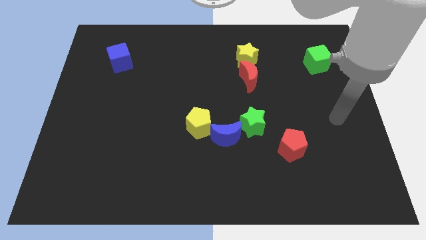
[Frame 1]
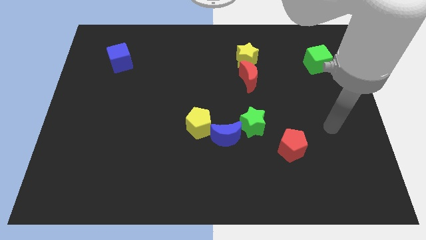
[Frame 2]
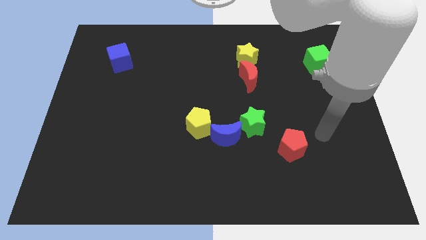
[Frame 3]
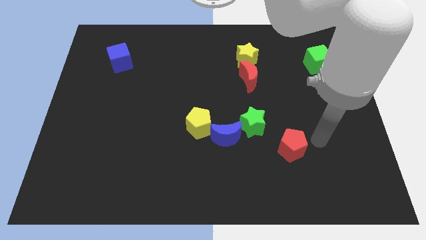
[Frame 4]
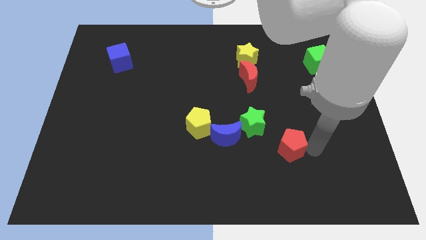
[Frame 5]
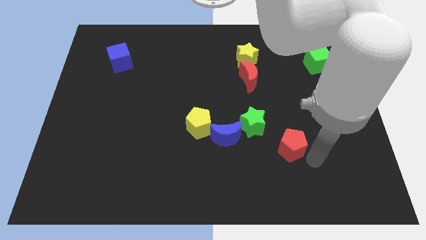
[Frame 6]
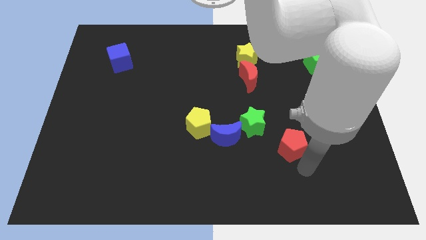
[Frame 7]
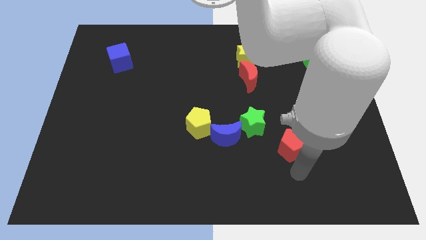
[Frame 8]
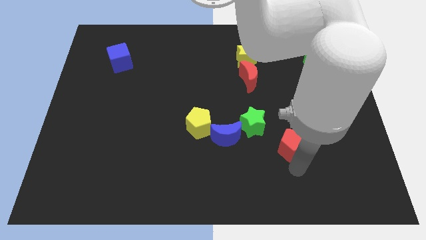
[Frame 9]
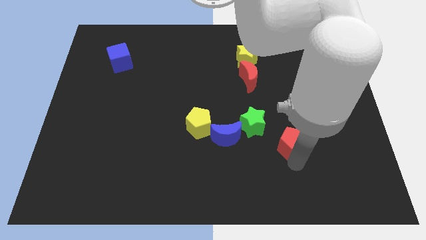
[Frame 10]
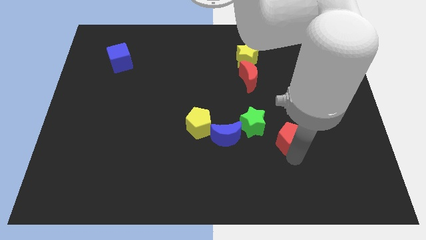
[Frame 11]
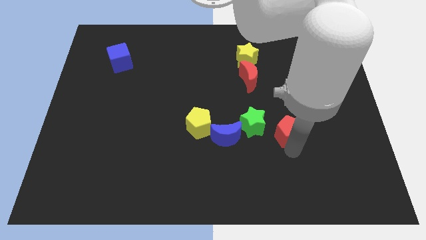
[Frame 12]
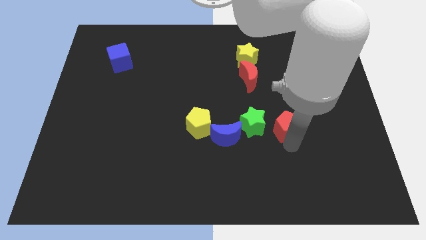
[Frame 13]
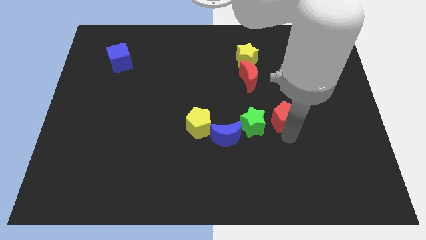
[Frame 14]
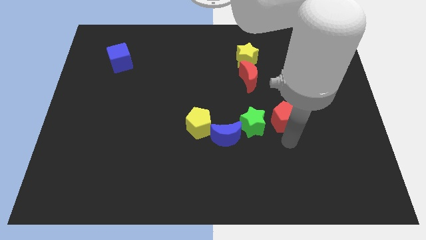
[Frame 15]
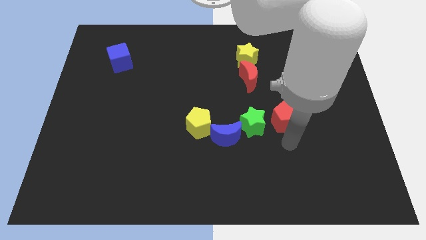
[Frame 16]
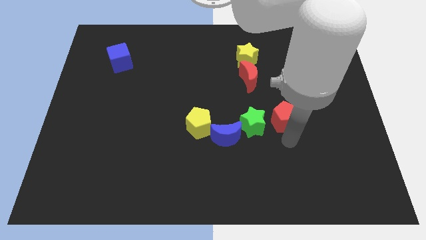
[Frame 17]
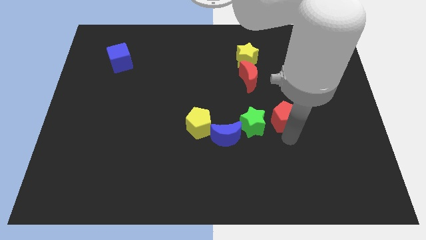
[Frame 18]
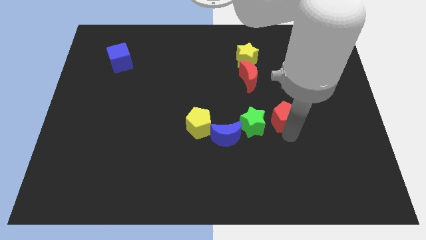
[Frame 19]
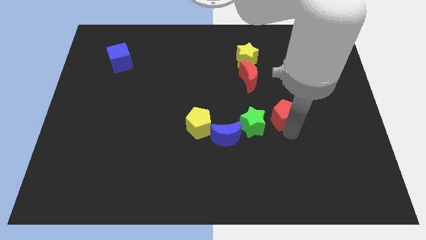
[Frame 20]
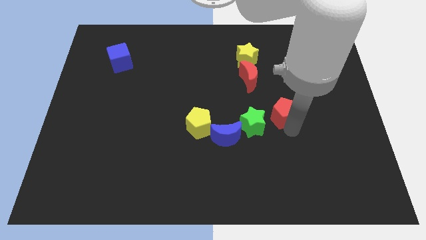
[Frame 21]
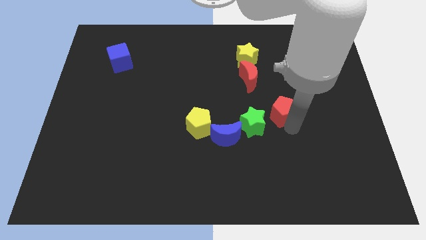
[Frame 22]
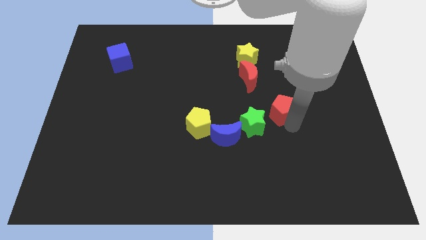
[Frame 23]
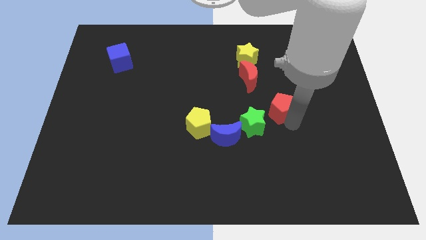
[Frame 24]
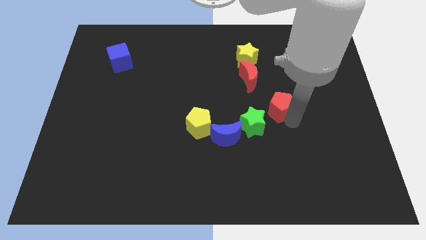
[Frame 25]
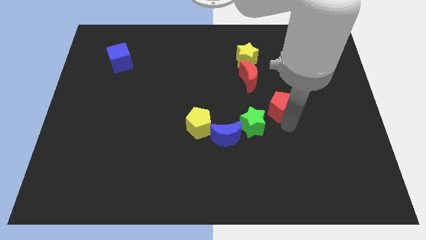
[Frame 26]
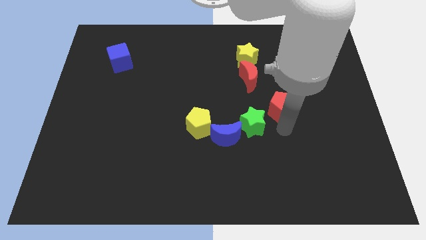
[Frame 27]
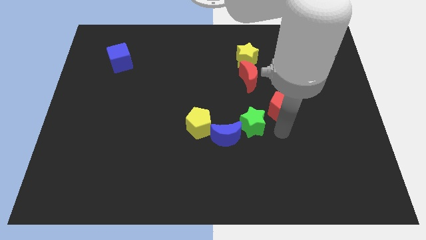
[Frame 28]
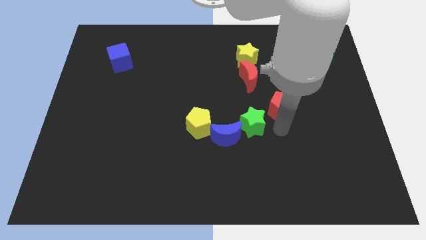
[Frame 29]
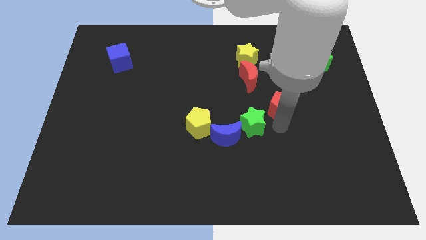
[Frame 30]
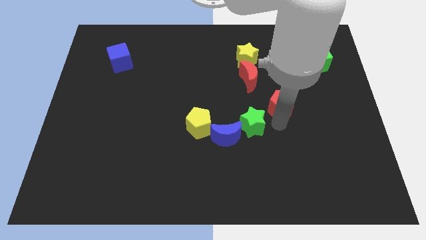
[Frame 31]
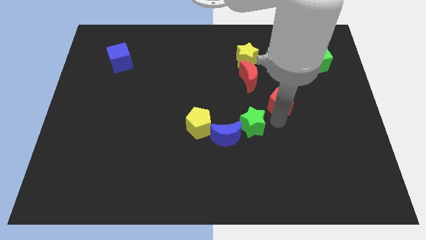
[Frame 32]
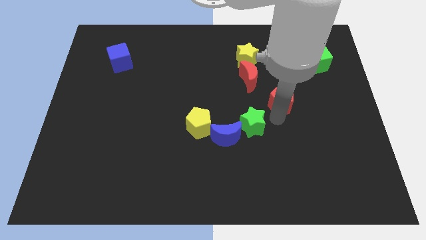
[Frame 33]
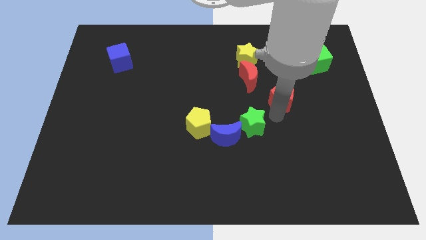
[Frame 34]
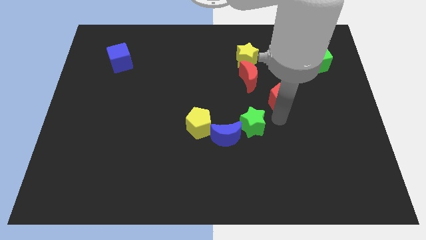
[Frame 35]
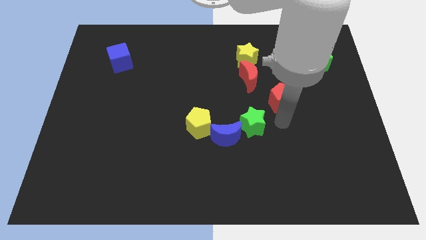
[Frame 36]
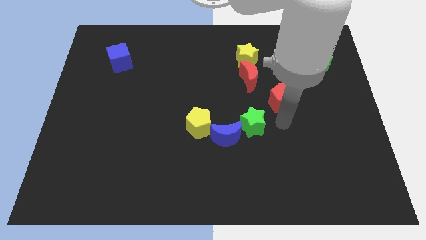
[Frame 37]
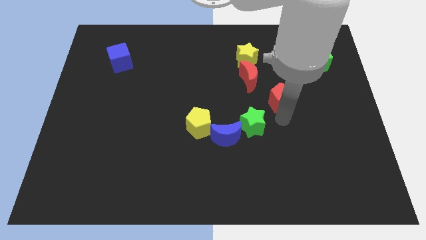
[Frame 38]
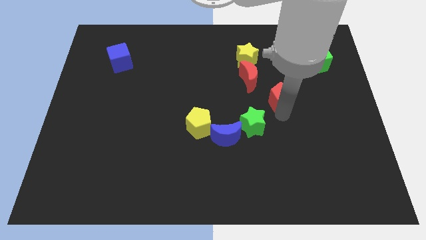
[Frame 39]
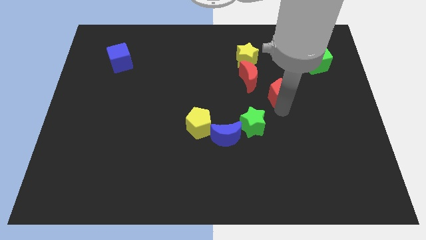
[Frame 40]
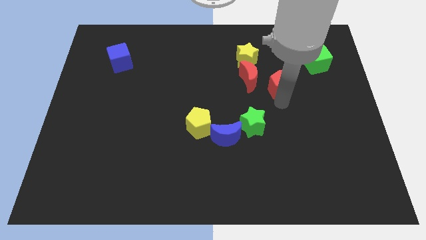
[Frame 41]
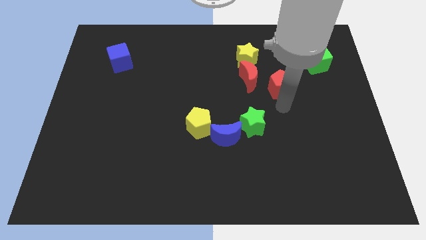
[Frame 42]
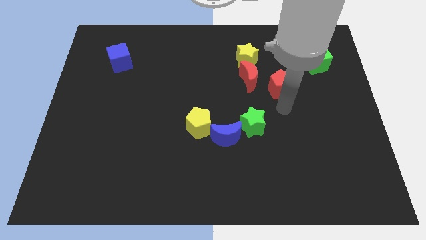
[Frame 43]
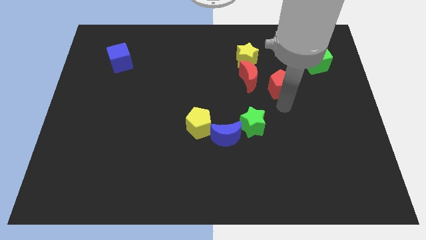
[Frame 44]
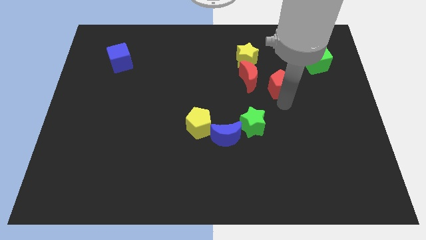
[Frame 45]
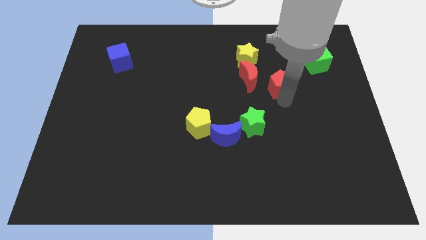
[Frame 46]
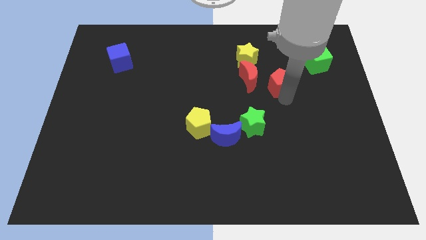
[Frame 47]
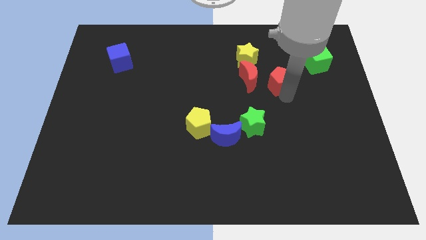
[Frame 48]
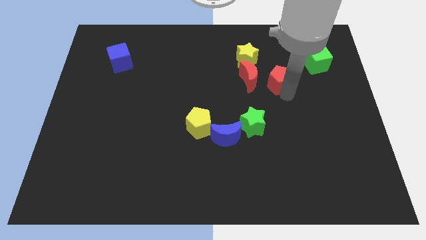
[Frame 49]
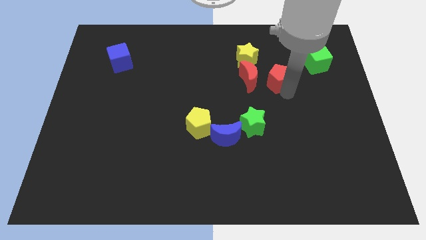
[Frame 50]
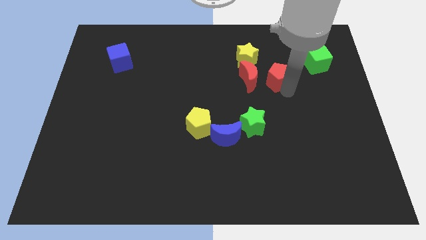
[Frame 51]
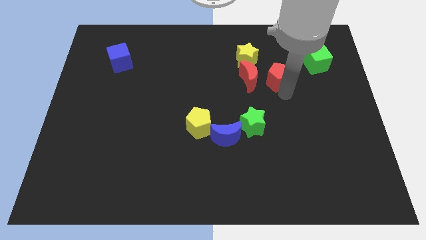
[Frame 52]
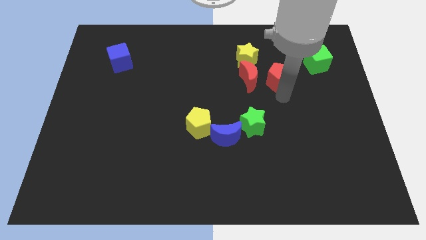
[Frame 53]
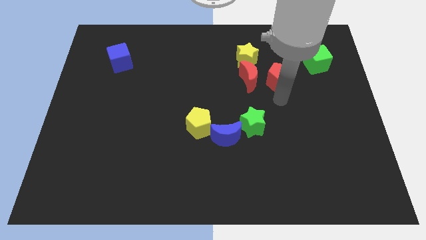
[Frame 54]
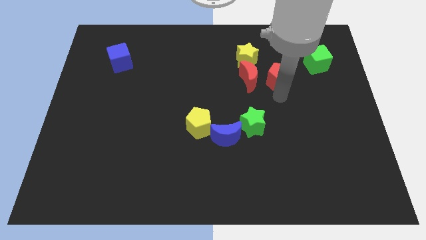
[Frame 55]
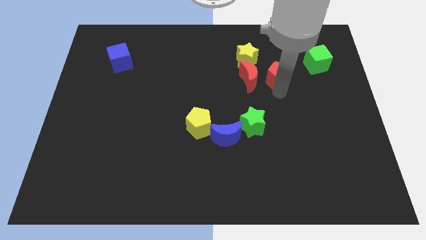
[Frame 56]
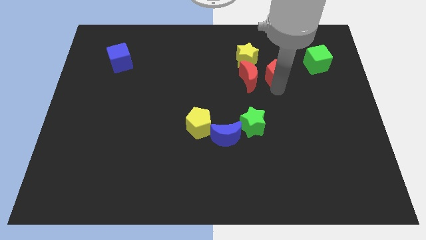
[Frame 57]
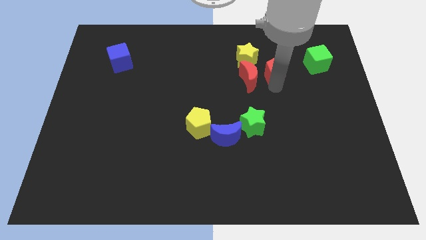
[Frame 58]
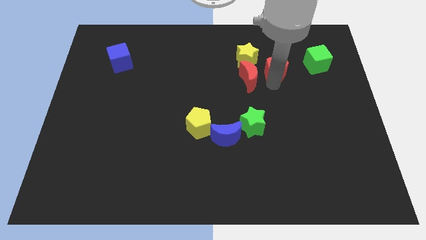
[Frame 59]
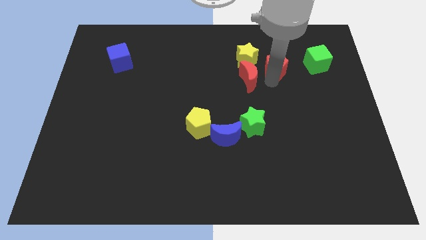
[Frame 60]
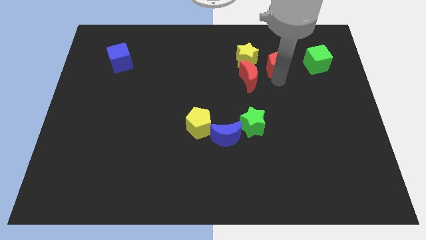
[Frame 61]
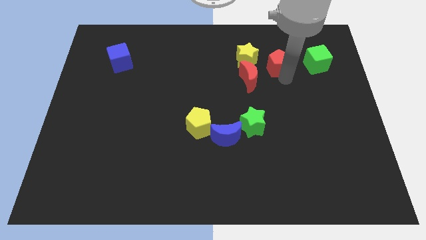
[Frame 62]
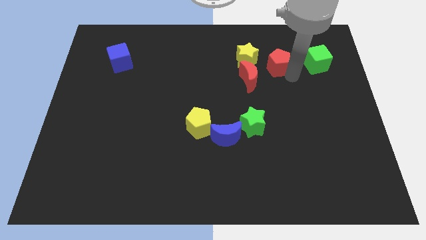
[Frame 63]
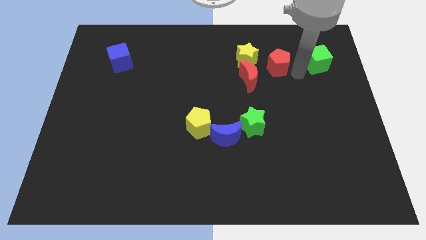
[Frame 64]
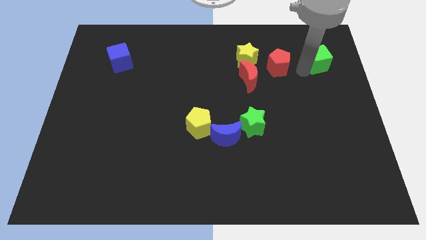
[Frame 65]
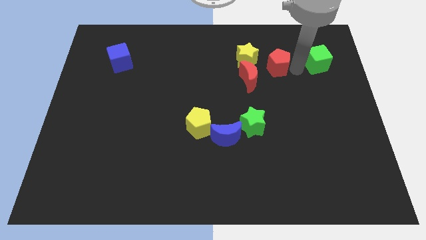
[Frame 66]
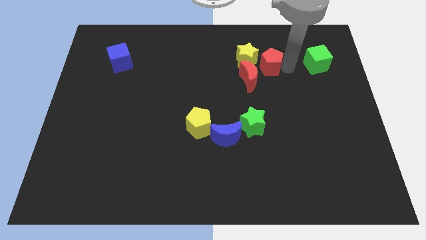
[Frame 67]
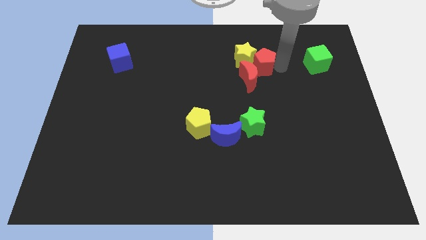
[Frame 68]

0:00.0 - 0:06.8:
move the red pentagon to the yellow star

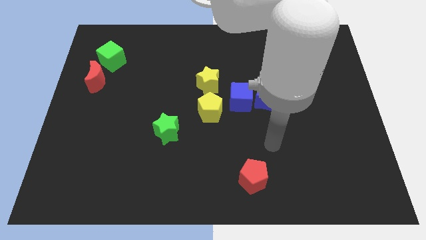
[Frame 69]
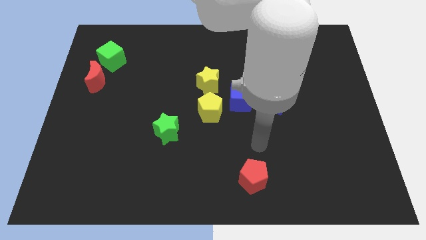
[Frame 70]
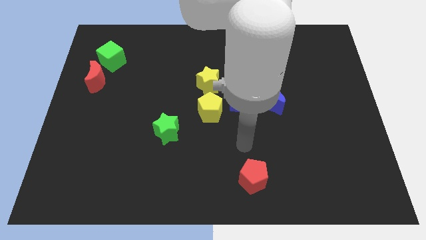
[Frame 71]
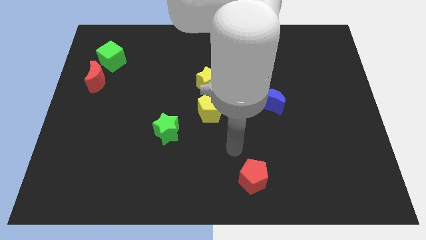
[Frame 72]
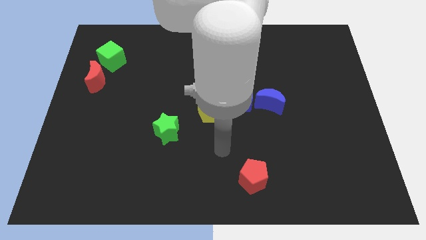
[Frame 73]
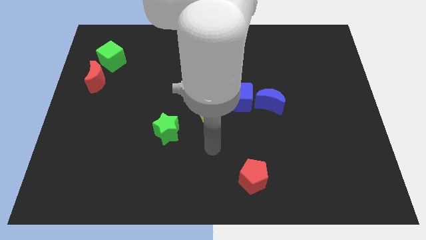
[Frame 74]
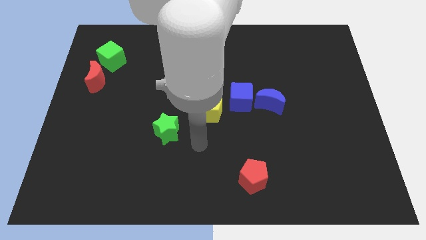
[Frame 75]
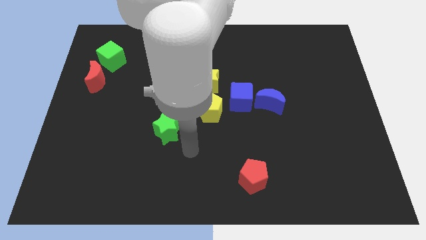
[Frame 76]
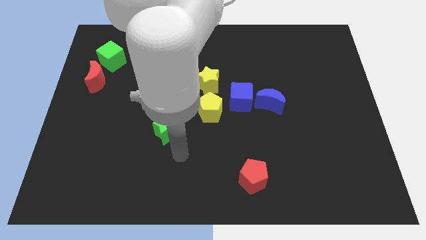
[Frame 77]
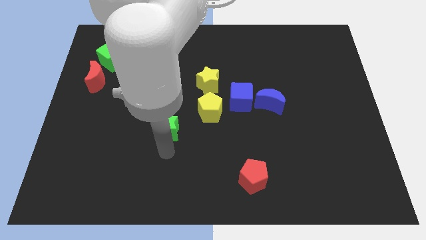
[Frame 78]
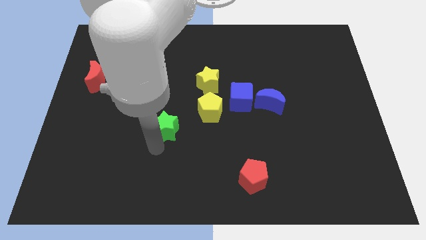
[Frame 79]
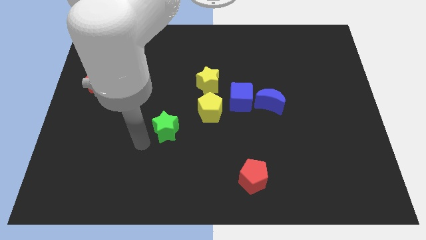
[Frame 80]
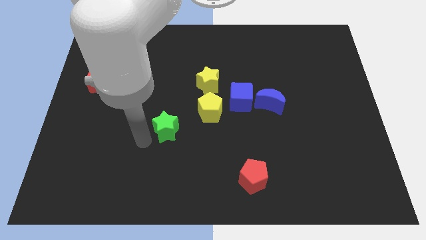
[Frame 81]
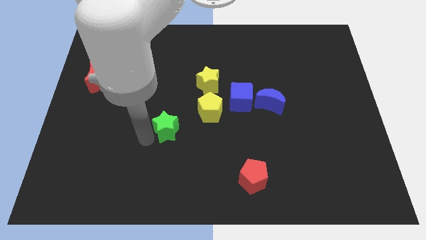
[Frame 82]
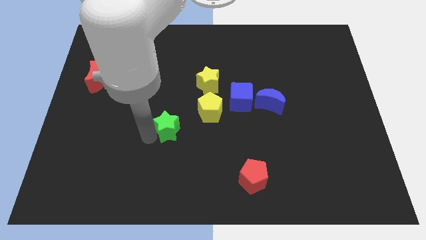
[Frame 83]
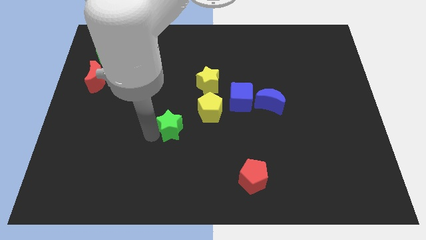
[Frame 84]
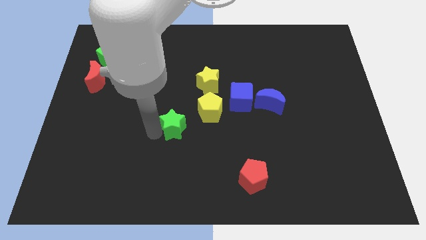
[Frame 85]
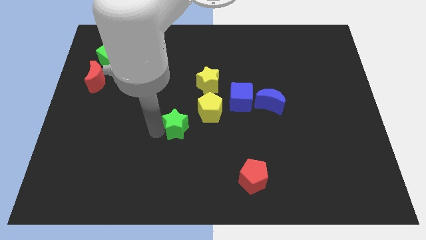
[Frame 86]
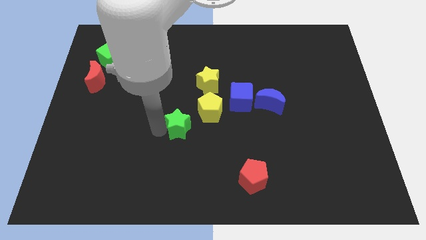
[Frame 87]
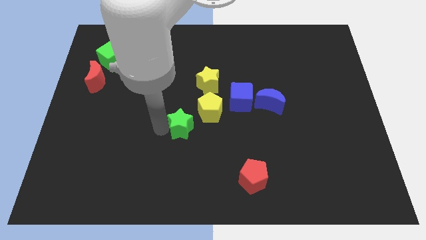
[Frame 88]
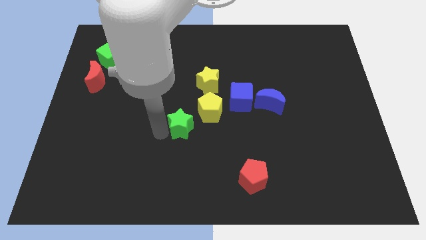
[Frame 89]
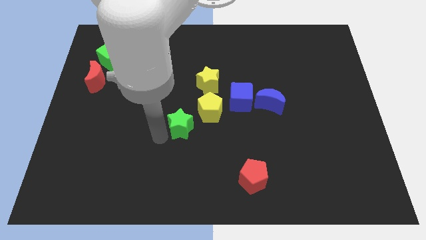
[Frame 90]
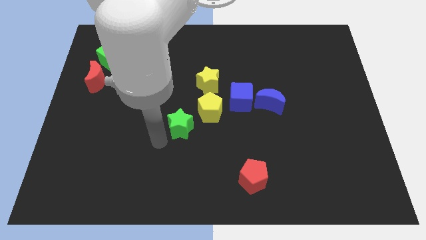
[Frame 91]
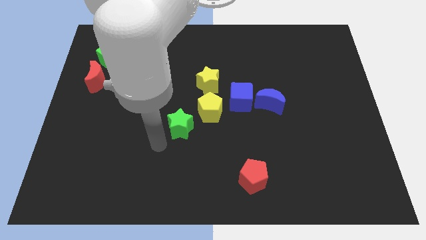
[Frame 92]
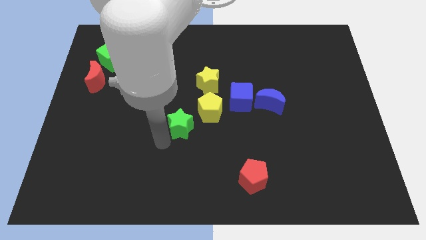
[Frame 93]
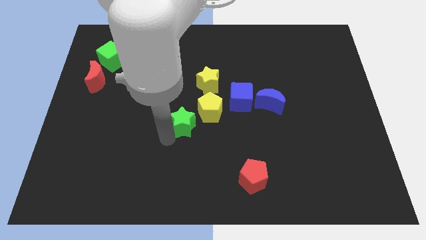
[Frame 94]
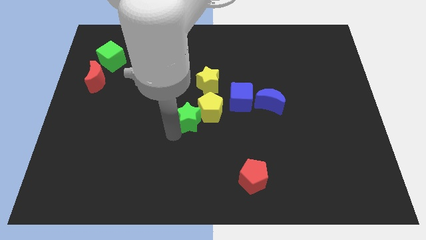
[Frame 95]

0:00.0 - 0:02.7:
slide the green star next to the yellow pentagon
